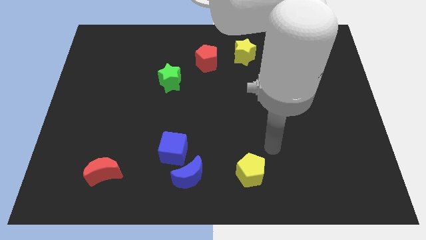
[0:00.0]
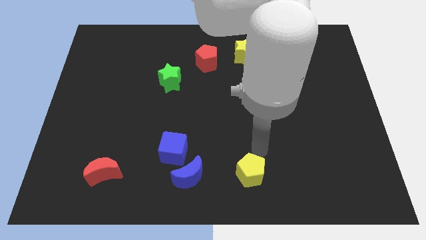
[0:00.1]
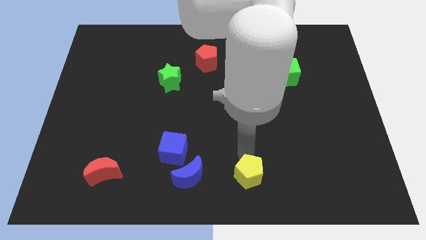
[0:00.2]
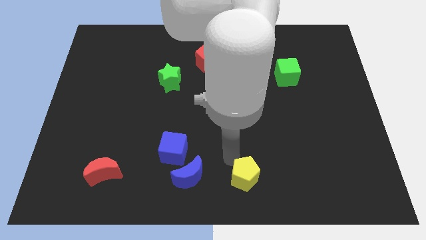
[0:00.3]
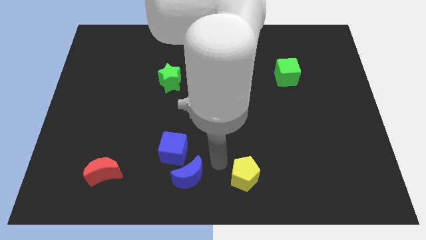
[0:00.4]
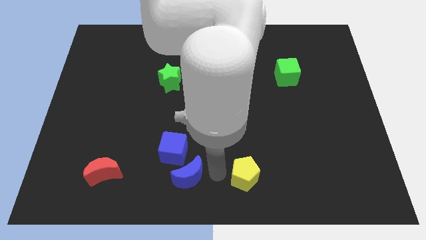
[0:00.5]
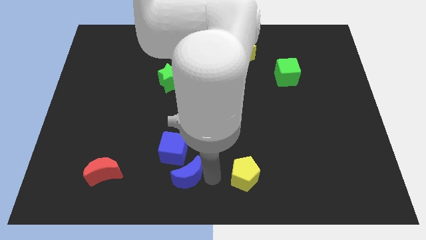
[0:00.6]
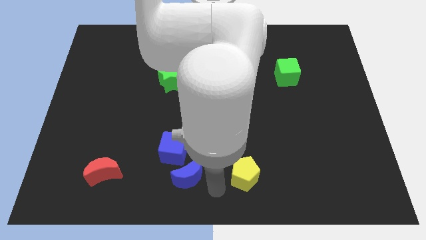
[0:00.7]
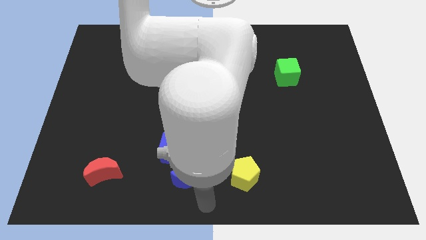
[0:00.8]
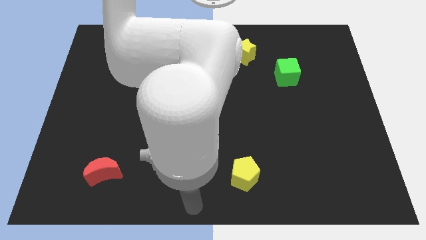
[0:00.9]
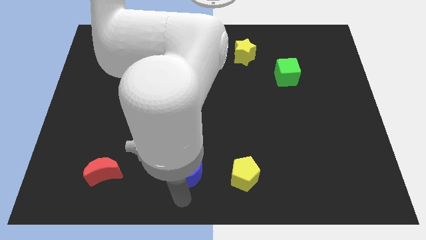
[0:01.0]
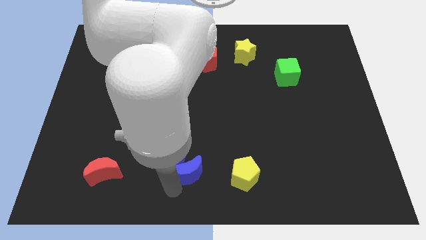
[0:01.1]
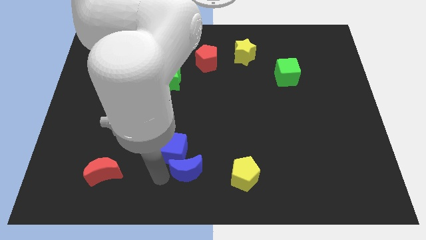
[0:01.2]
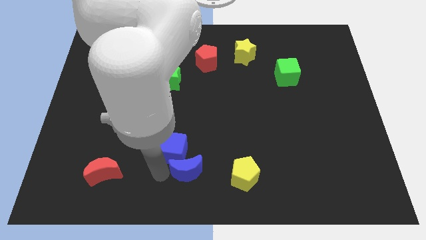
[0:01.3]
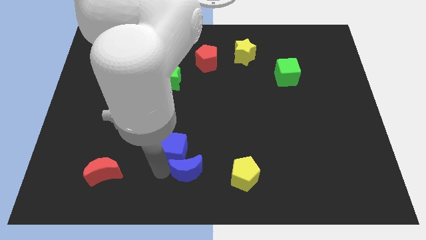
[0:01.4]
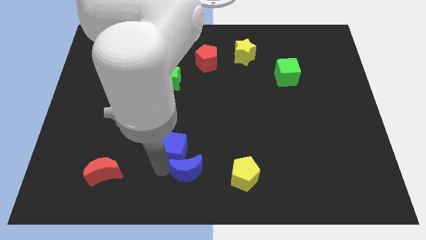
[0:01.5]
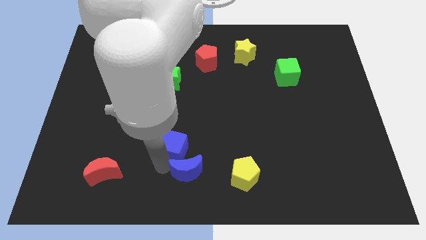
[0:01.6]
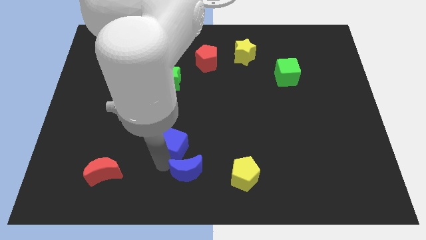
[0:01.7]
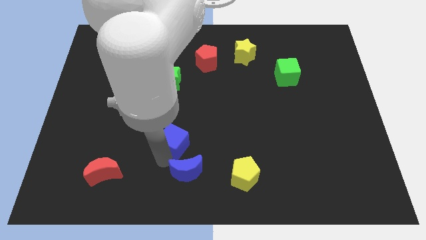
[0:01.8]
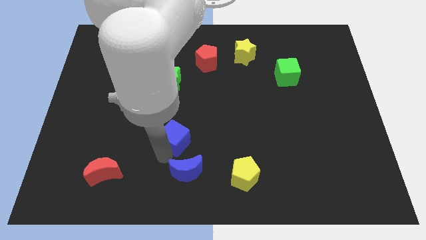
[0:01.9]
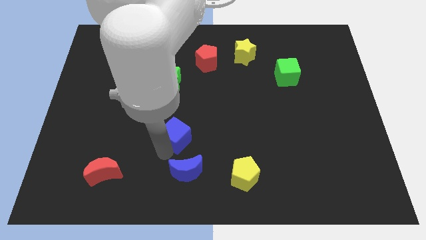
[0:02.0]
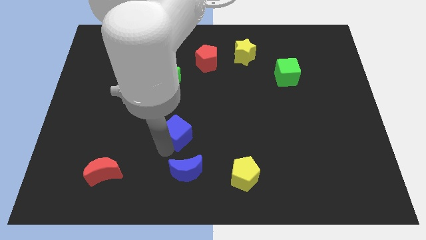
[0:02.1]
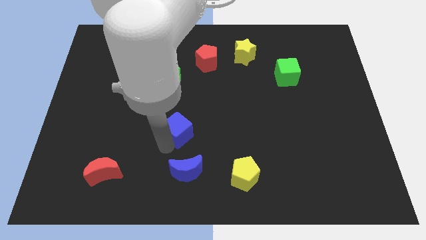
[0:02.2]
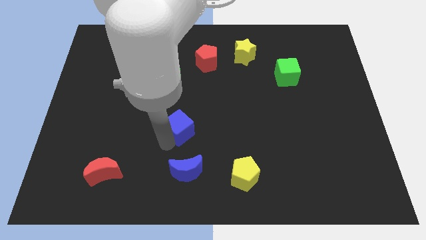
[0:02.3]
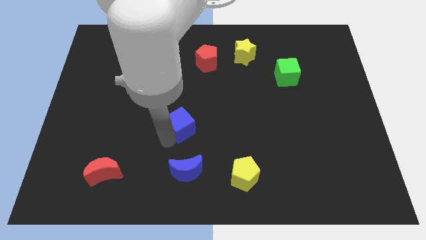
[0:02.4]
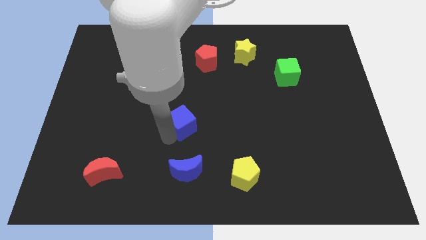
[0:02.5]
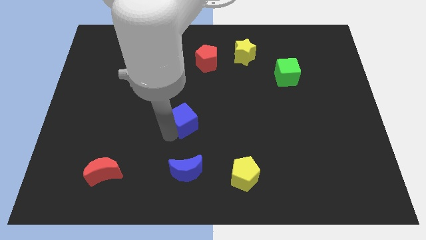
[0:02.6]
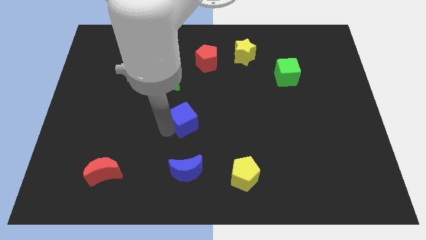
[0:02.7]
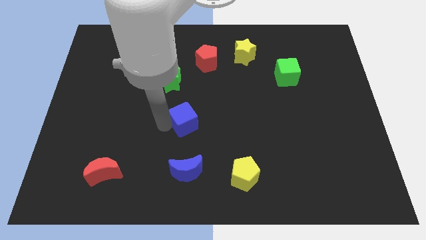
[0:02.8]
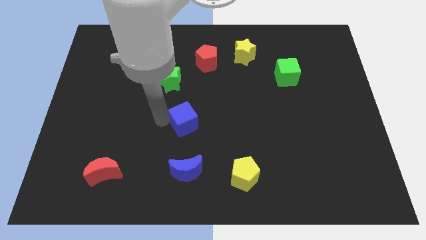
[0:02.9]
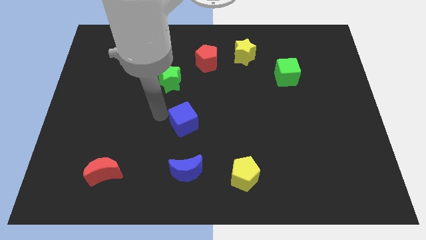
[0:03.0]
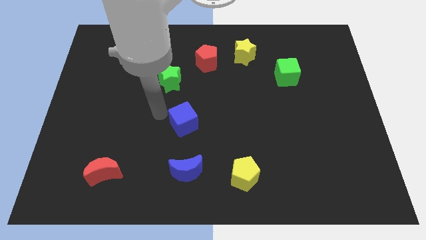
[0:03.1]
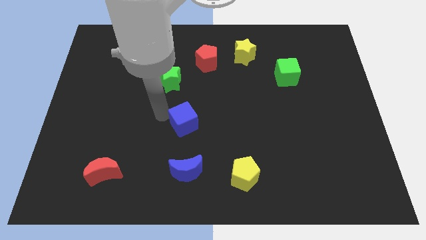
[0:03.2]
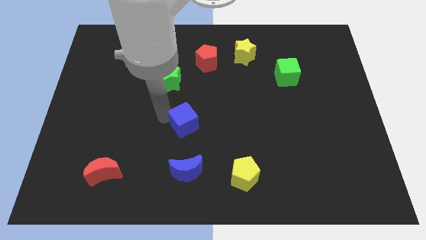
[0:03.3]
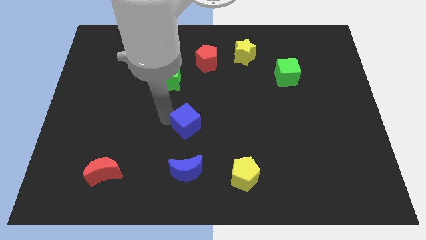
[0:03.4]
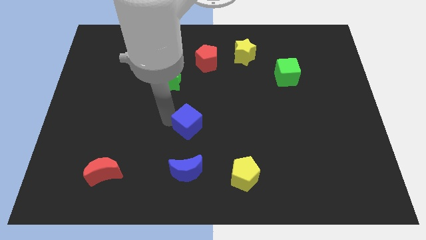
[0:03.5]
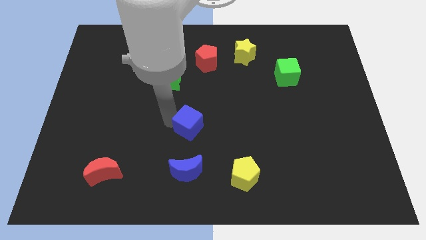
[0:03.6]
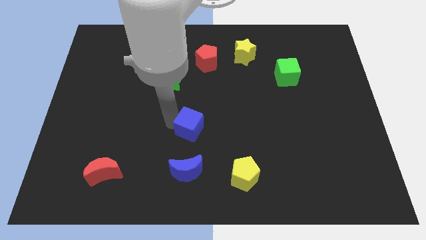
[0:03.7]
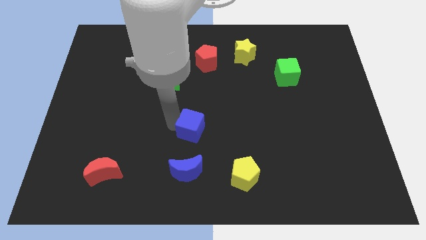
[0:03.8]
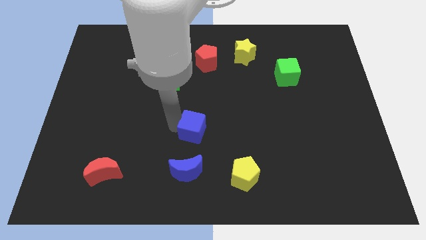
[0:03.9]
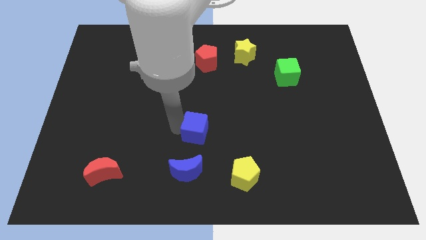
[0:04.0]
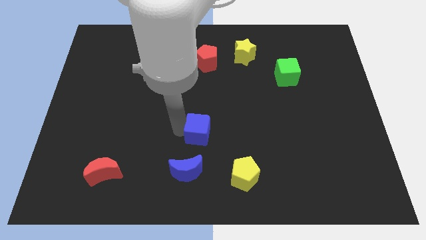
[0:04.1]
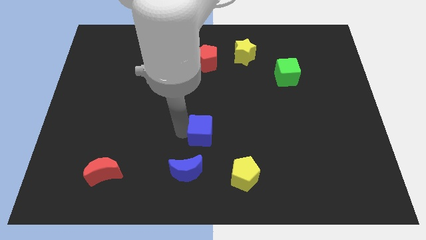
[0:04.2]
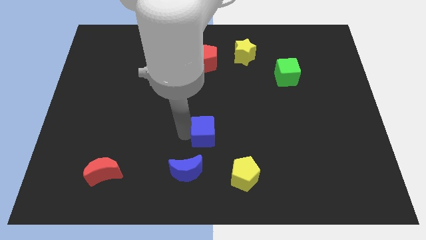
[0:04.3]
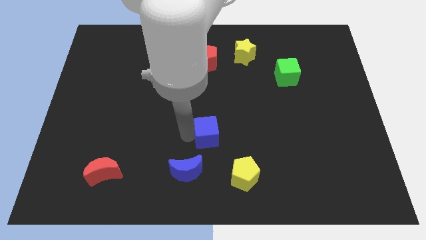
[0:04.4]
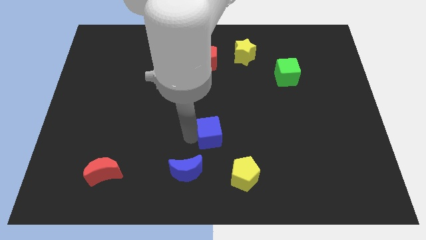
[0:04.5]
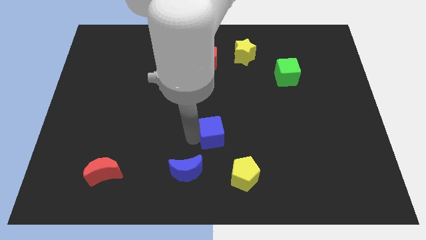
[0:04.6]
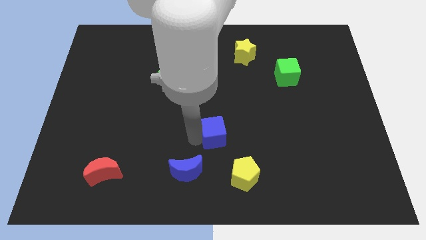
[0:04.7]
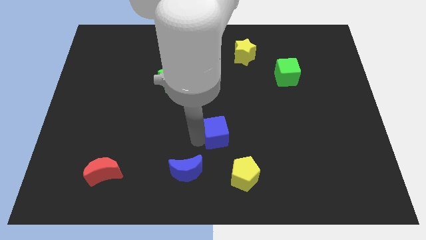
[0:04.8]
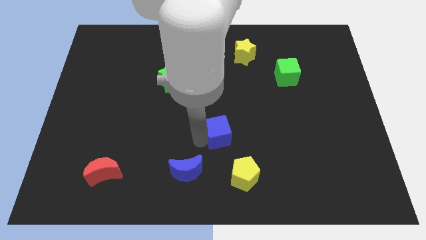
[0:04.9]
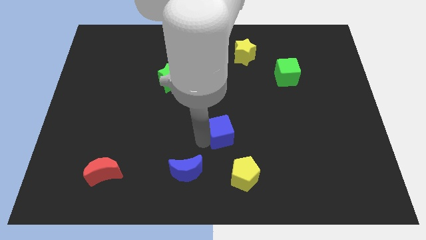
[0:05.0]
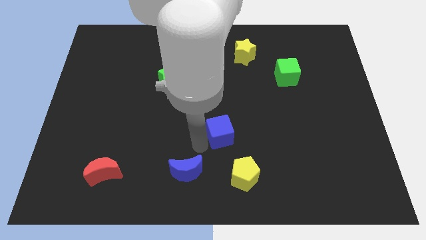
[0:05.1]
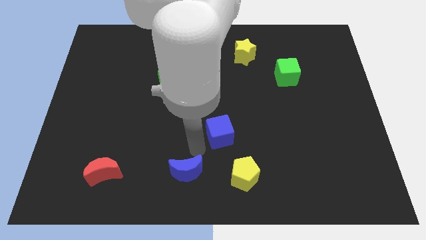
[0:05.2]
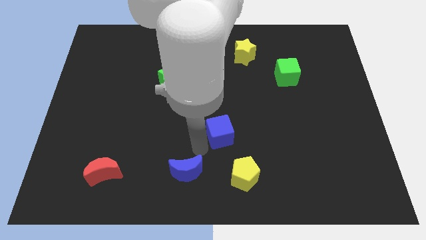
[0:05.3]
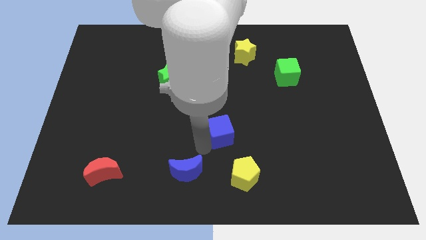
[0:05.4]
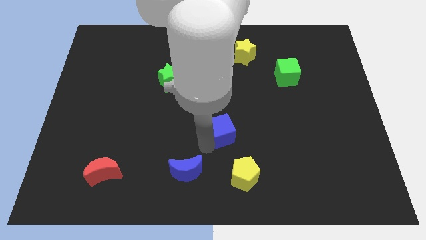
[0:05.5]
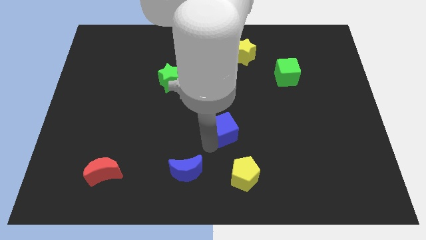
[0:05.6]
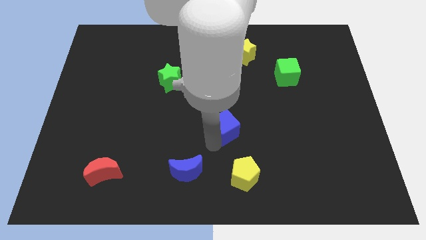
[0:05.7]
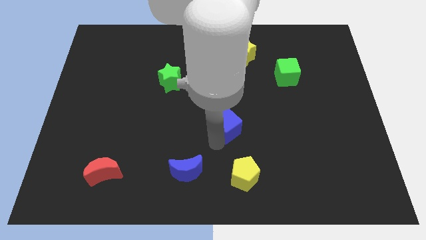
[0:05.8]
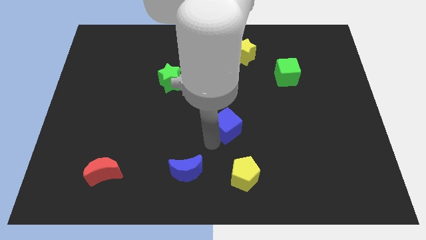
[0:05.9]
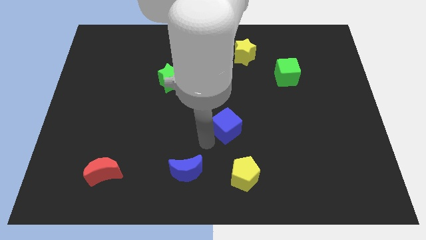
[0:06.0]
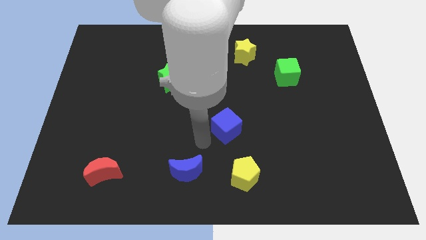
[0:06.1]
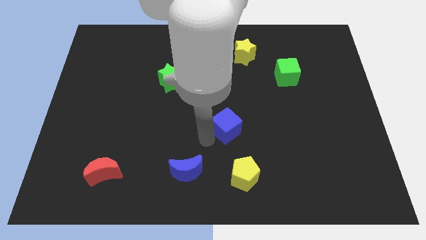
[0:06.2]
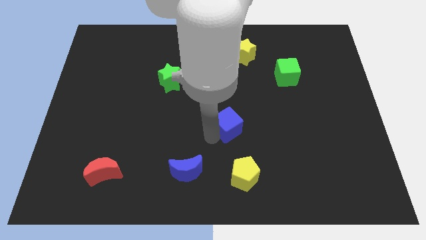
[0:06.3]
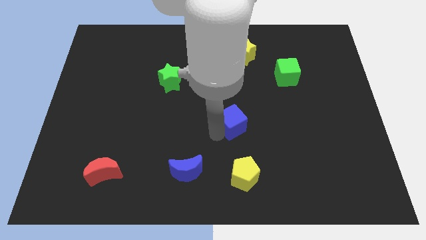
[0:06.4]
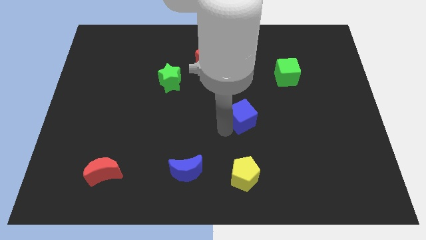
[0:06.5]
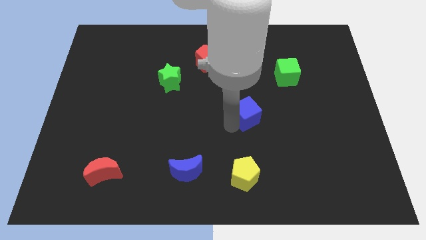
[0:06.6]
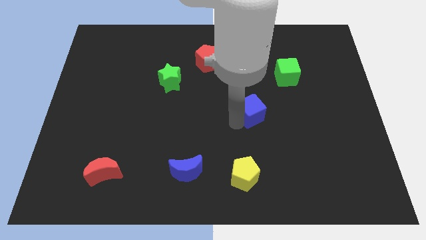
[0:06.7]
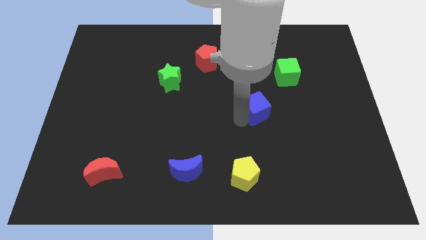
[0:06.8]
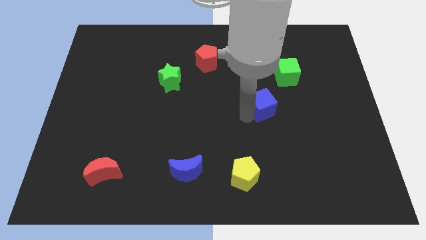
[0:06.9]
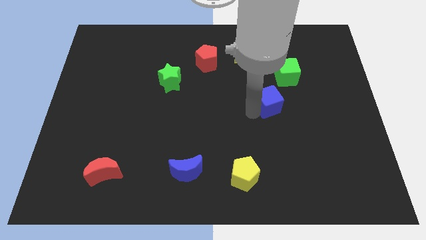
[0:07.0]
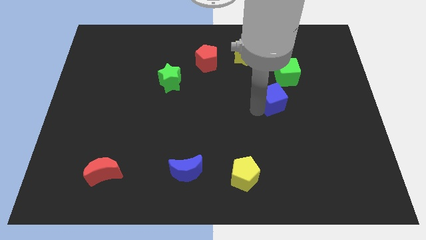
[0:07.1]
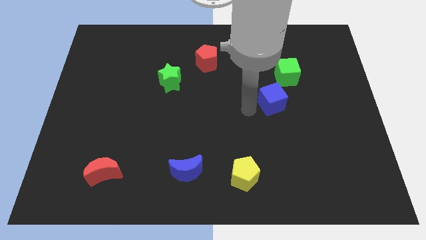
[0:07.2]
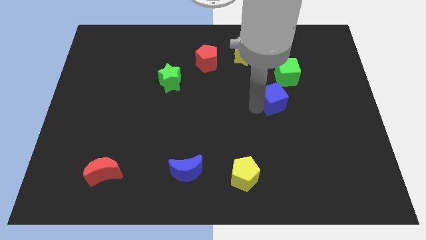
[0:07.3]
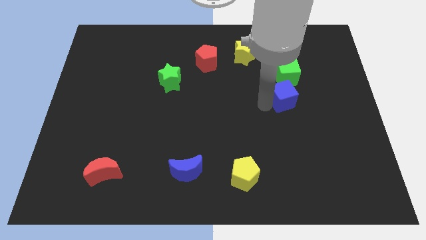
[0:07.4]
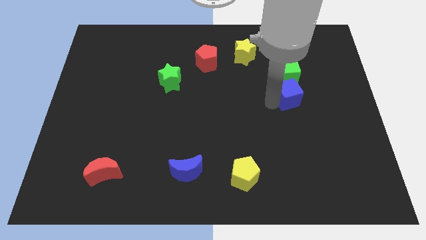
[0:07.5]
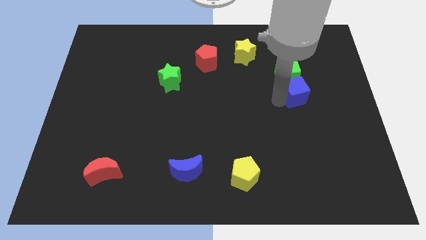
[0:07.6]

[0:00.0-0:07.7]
slide the blue cube to the bottom right of the green cube
